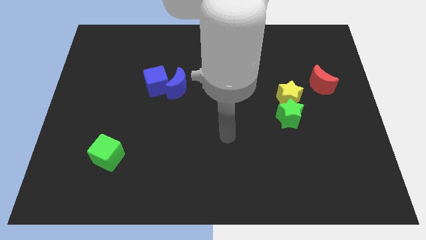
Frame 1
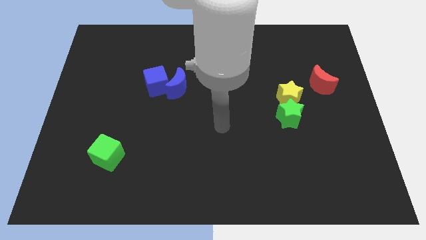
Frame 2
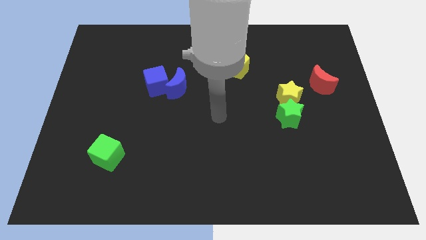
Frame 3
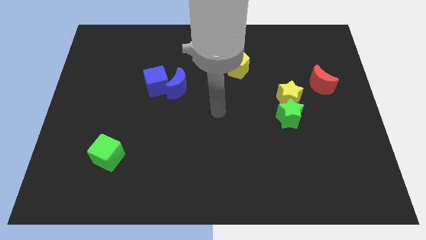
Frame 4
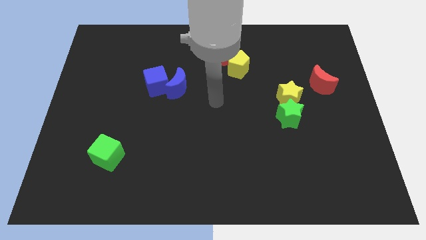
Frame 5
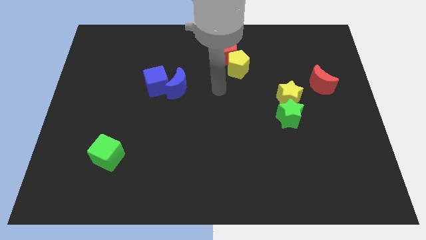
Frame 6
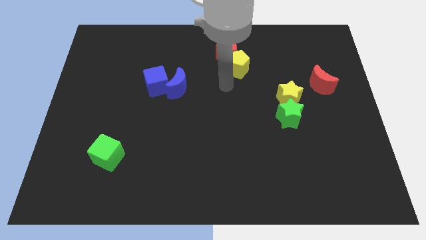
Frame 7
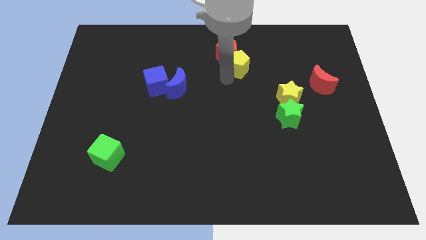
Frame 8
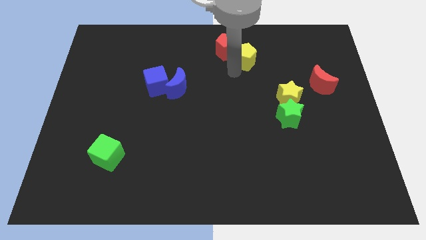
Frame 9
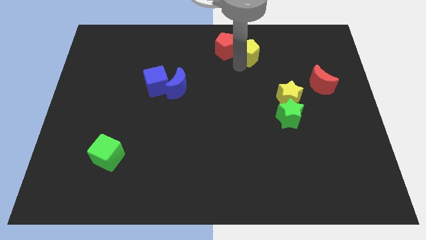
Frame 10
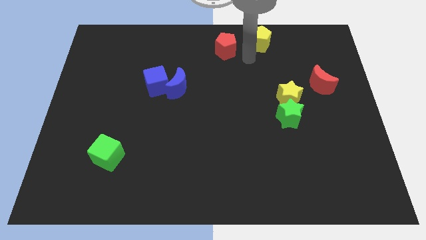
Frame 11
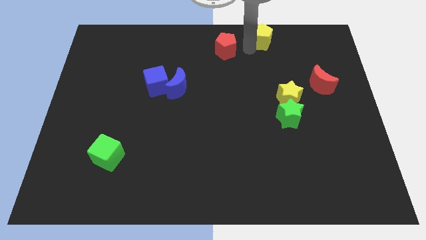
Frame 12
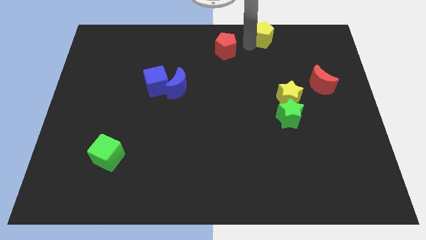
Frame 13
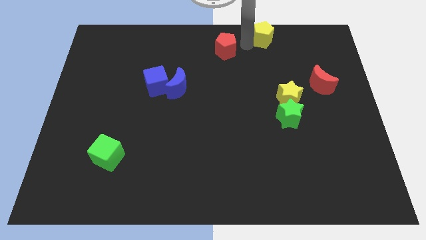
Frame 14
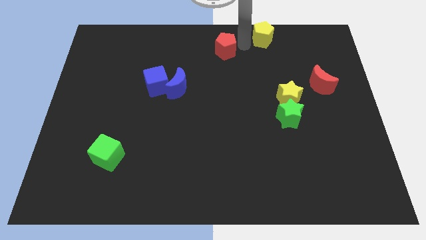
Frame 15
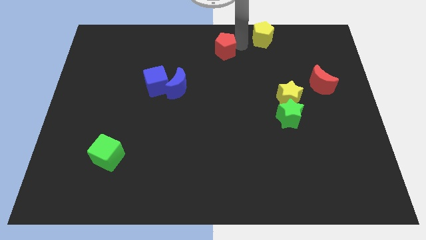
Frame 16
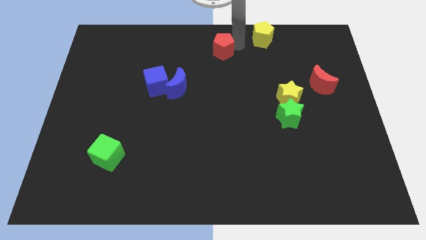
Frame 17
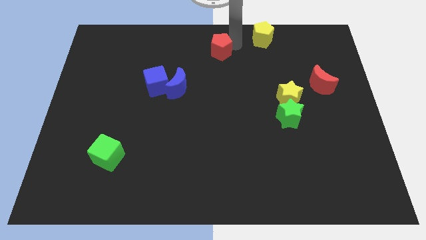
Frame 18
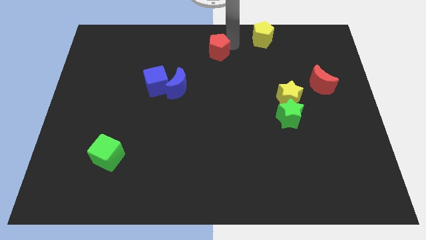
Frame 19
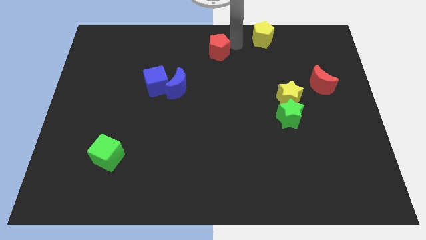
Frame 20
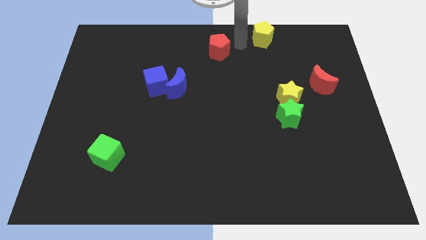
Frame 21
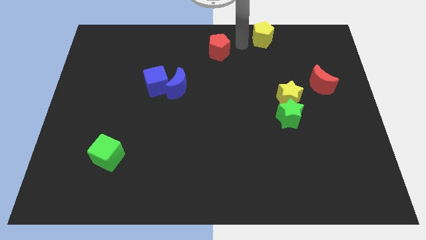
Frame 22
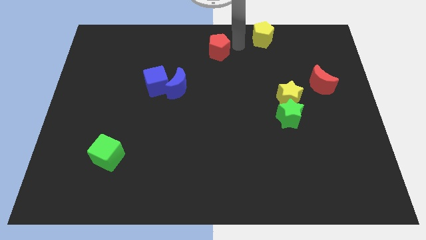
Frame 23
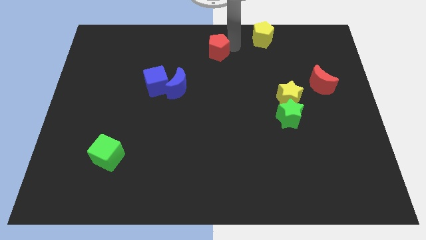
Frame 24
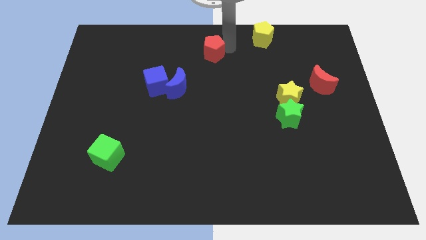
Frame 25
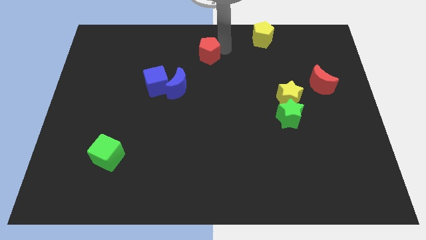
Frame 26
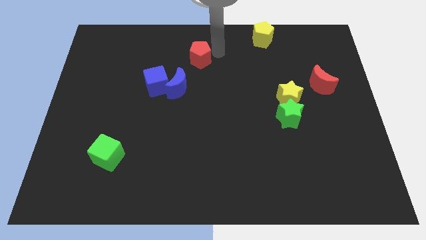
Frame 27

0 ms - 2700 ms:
push the red pentagon a bit left

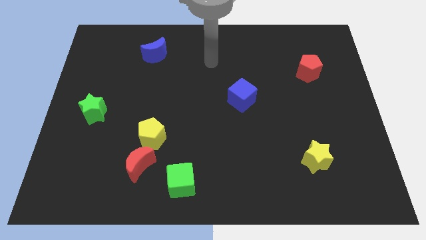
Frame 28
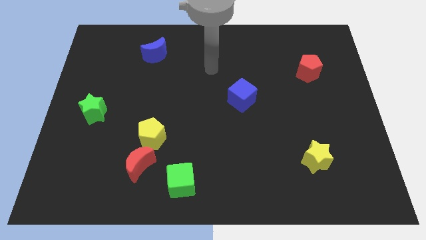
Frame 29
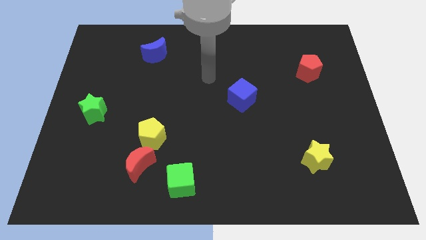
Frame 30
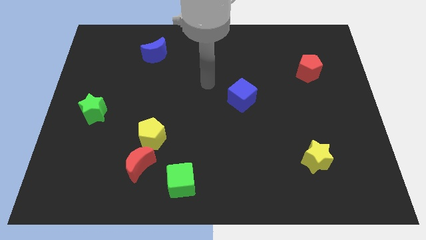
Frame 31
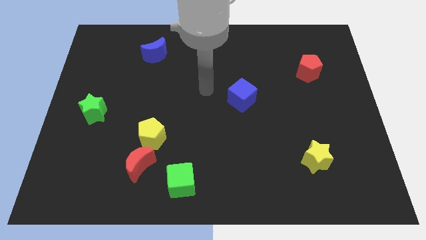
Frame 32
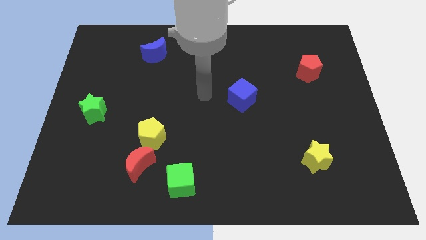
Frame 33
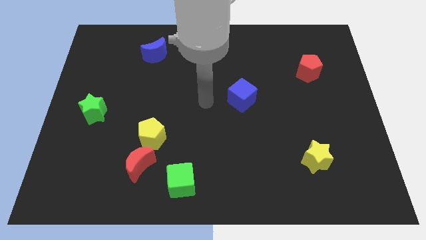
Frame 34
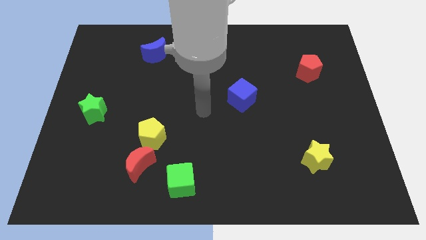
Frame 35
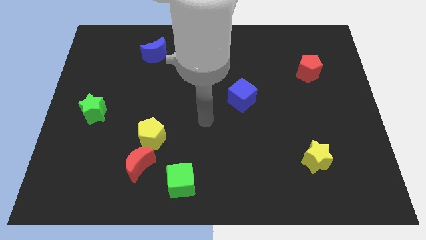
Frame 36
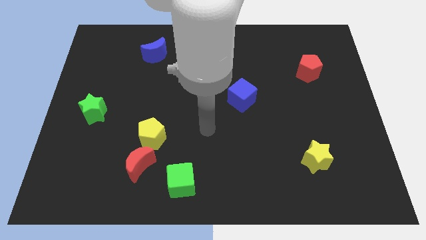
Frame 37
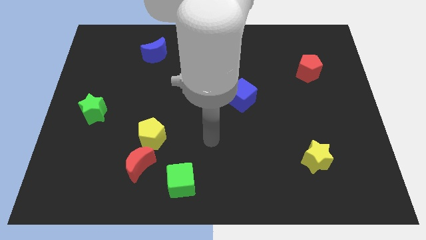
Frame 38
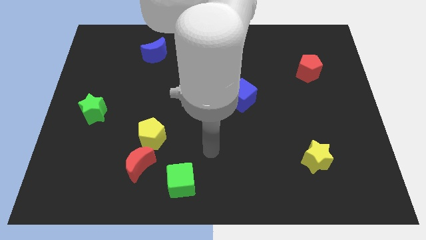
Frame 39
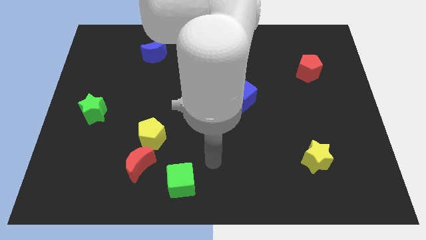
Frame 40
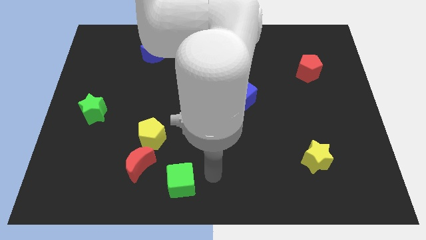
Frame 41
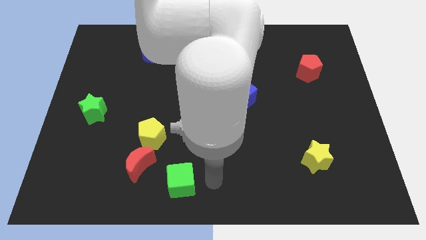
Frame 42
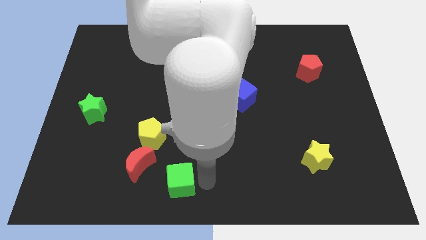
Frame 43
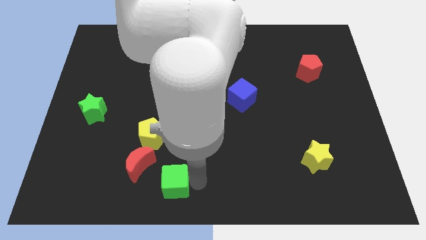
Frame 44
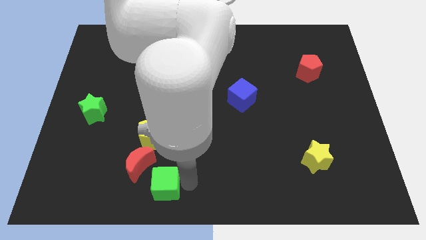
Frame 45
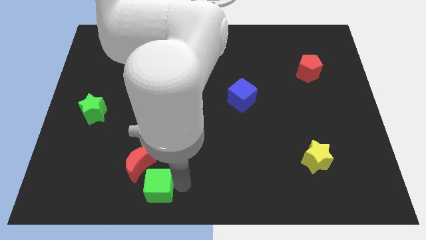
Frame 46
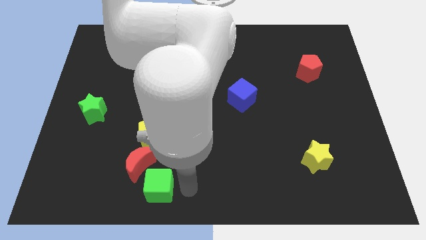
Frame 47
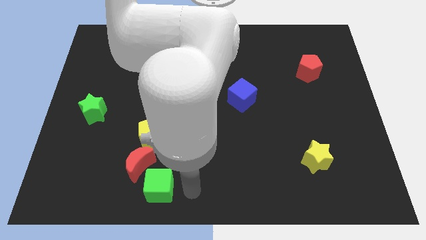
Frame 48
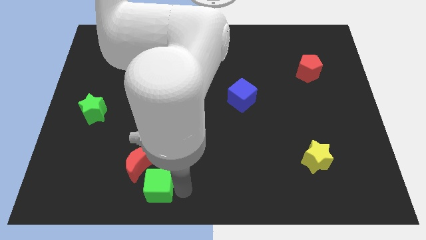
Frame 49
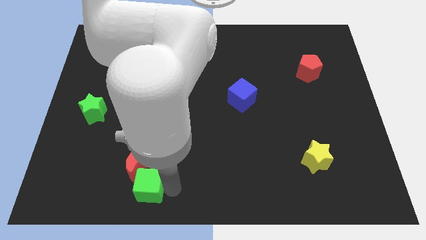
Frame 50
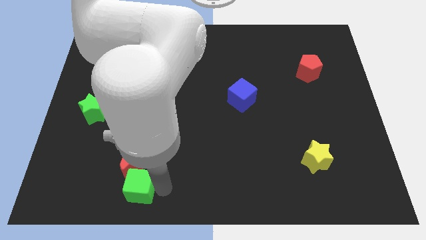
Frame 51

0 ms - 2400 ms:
slide the green cube to the left a little

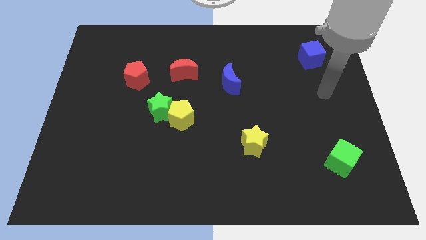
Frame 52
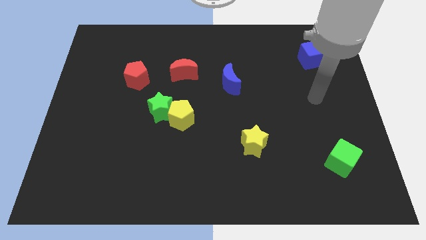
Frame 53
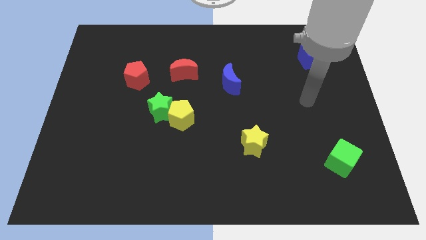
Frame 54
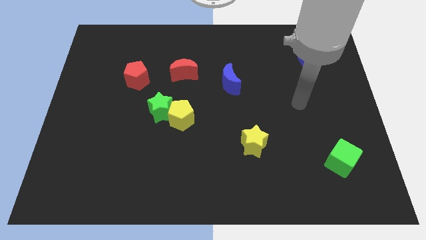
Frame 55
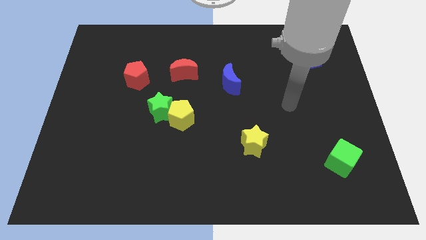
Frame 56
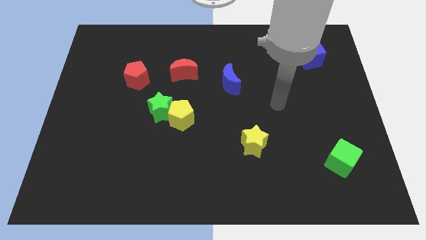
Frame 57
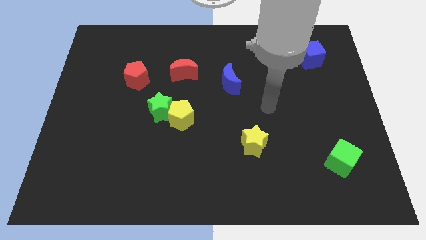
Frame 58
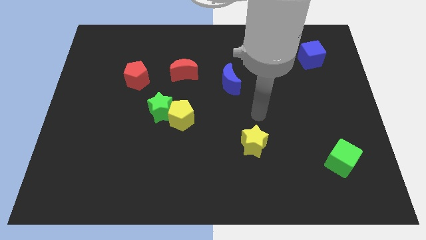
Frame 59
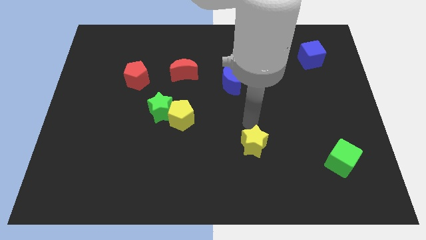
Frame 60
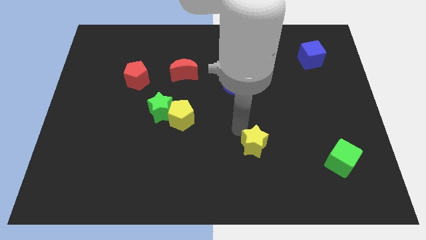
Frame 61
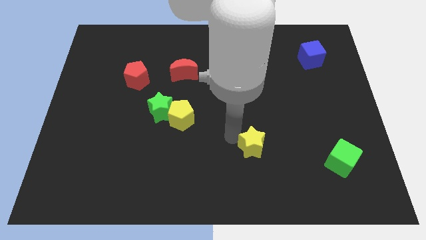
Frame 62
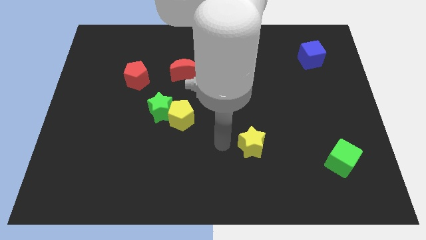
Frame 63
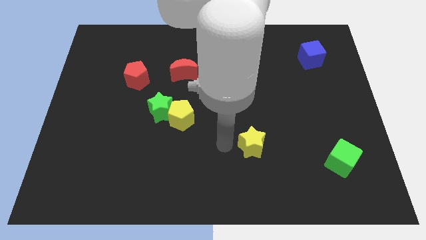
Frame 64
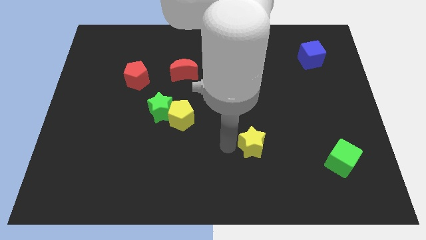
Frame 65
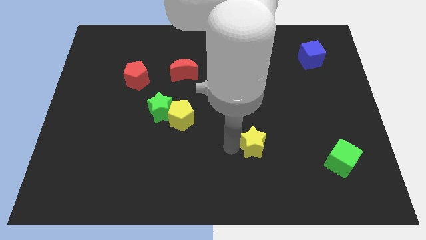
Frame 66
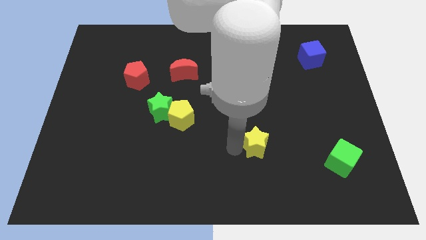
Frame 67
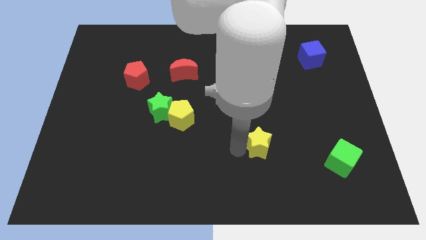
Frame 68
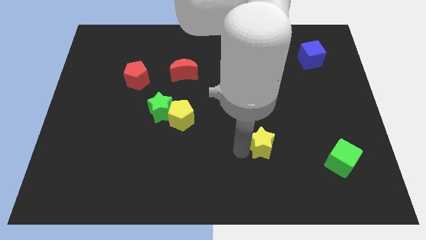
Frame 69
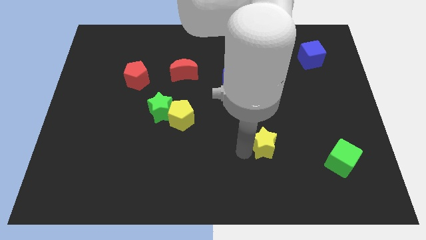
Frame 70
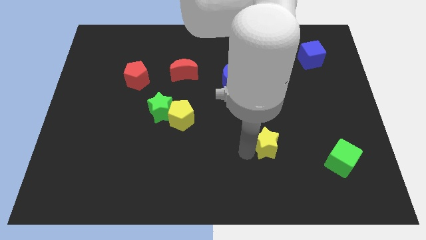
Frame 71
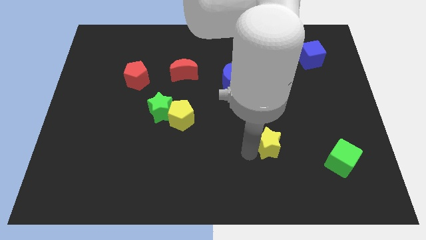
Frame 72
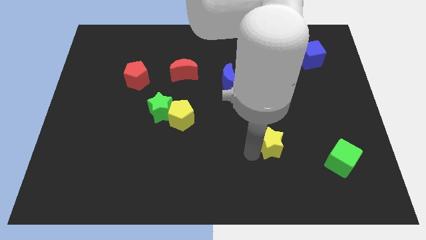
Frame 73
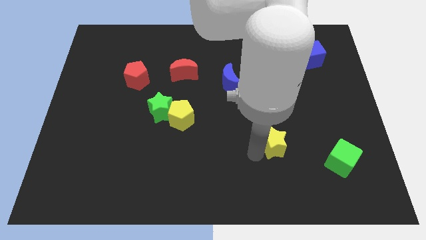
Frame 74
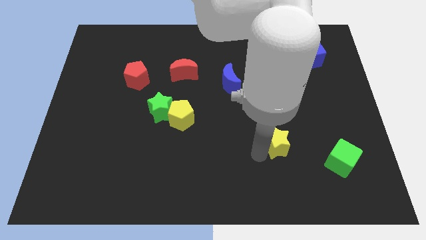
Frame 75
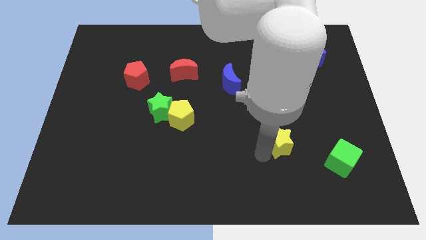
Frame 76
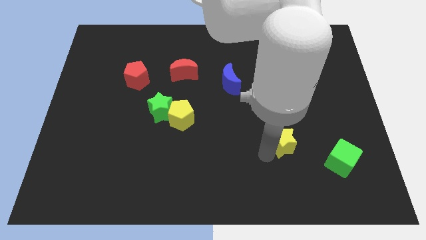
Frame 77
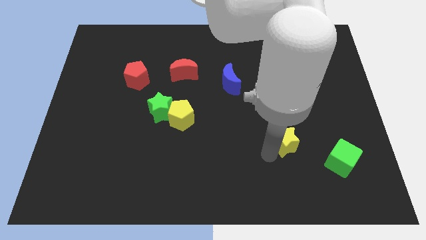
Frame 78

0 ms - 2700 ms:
slightly move the yellow star right

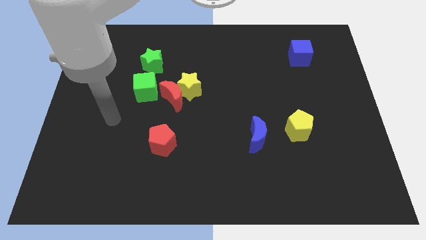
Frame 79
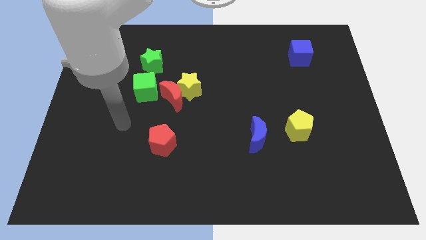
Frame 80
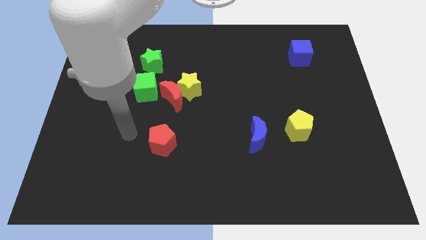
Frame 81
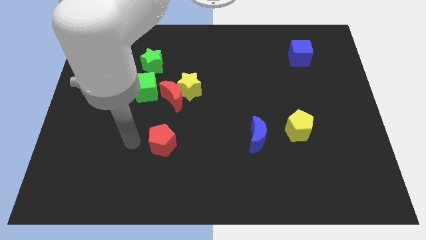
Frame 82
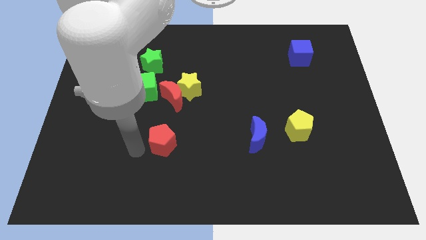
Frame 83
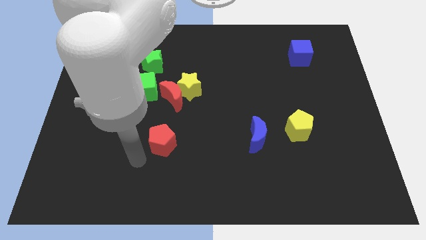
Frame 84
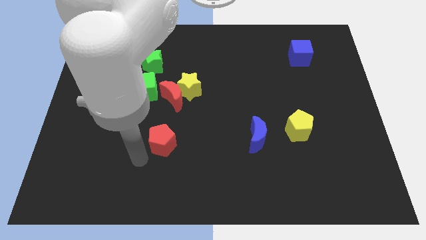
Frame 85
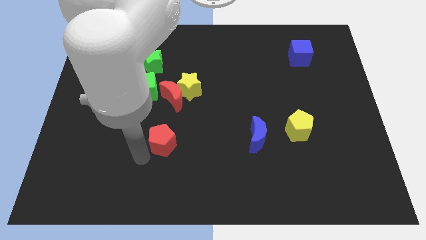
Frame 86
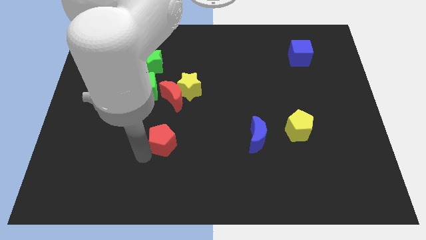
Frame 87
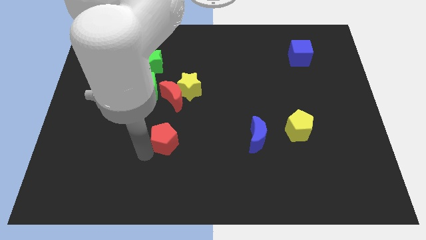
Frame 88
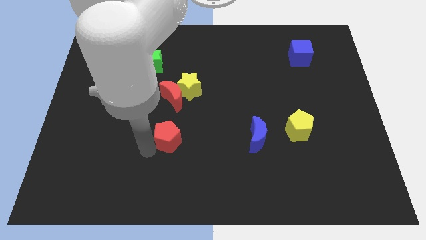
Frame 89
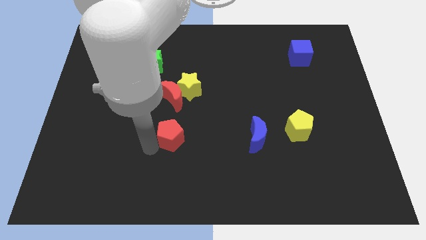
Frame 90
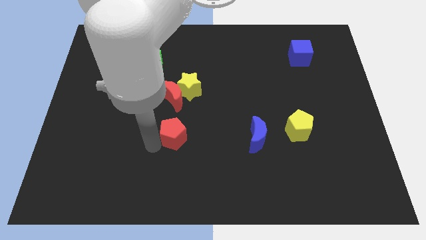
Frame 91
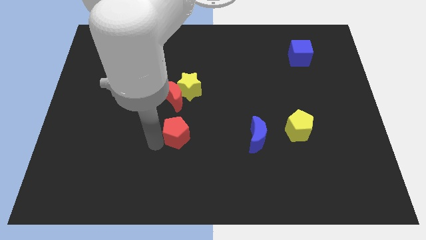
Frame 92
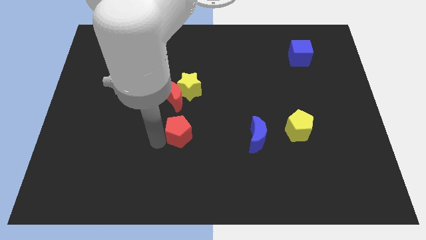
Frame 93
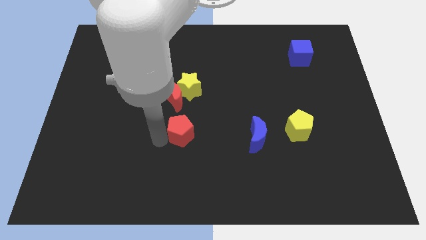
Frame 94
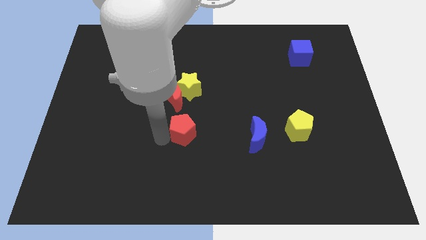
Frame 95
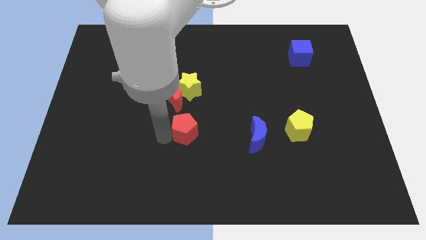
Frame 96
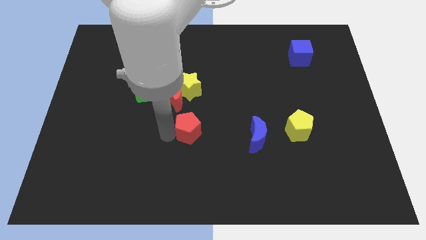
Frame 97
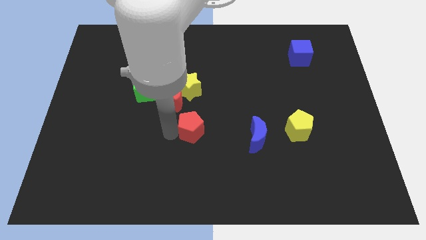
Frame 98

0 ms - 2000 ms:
slide the red pentagon a bit upwards and to the right
